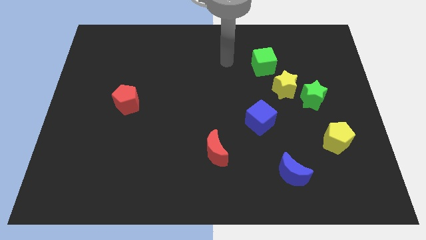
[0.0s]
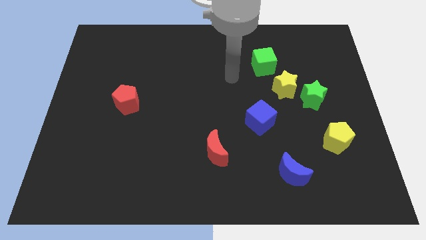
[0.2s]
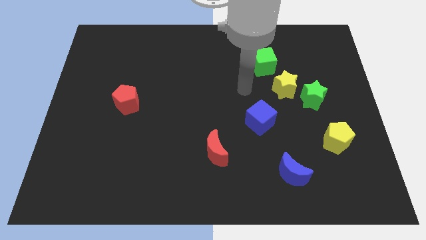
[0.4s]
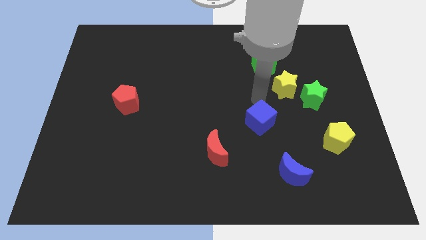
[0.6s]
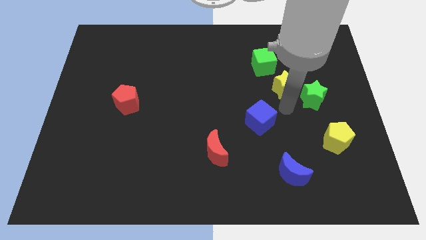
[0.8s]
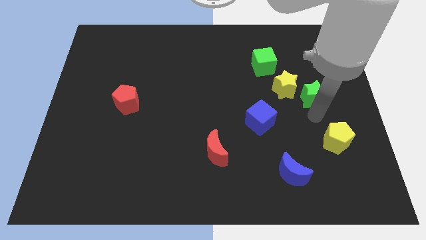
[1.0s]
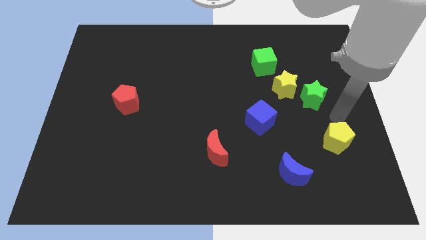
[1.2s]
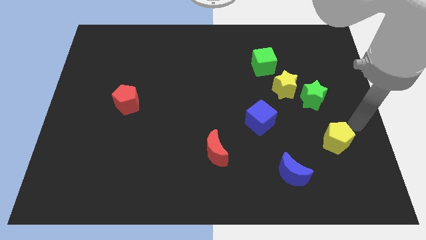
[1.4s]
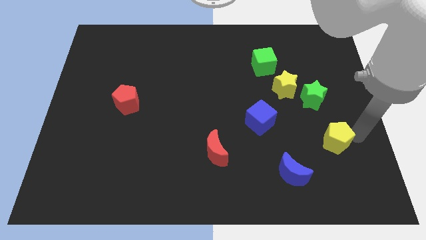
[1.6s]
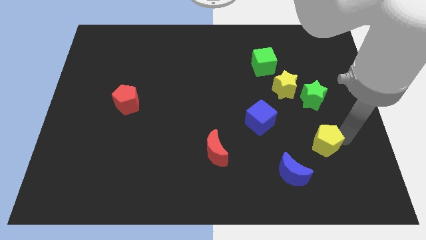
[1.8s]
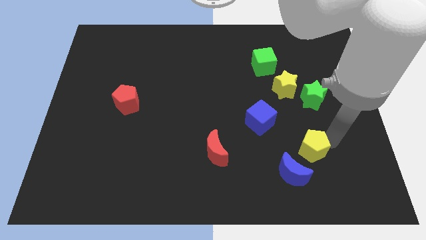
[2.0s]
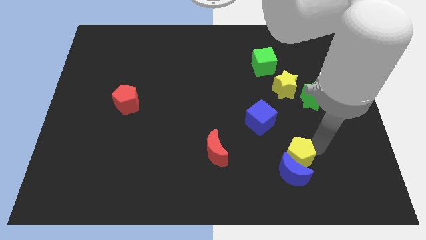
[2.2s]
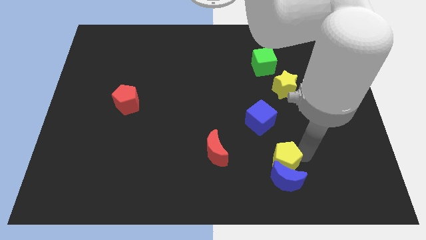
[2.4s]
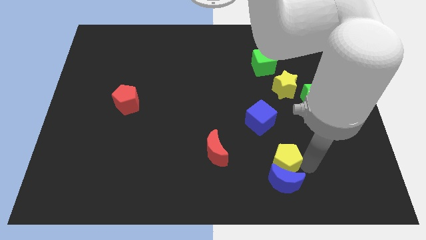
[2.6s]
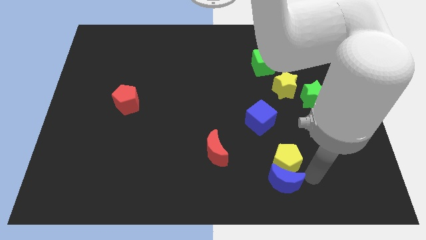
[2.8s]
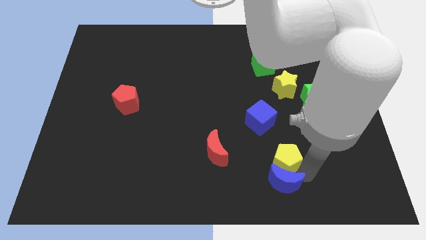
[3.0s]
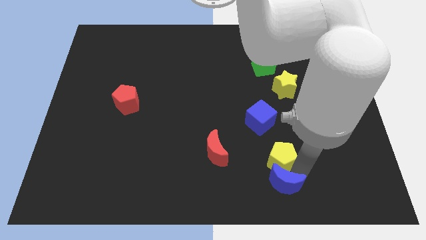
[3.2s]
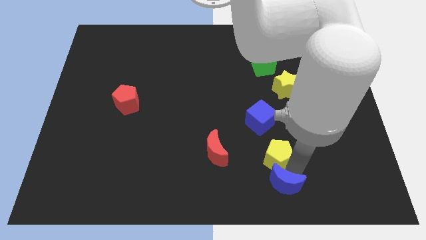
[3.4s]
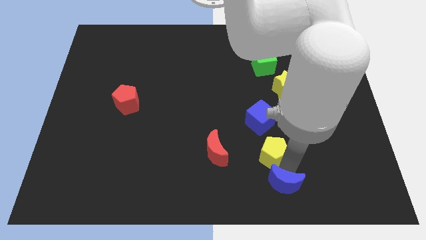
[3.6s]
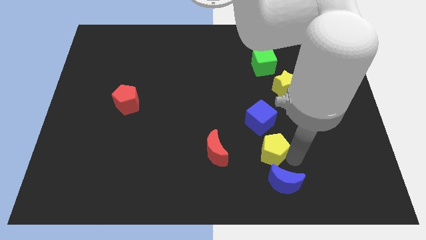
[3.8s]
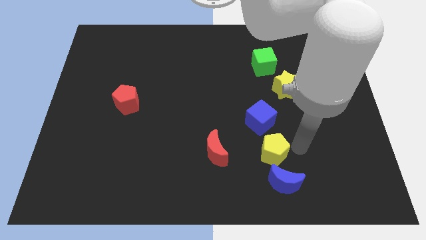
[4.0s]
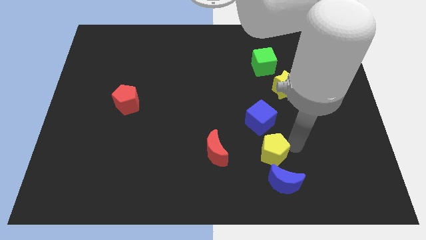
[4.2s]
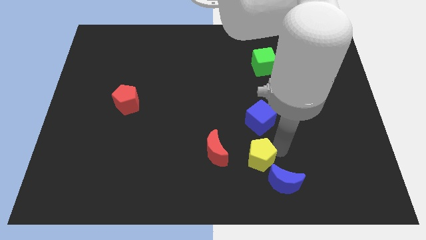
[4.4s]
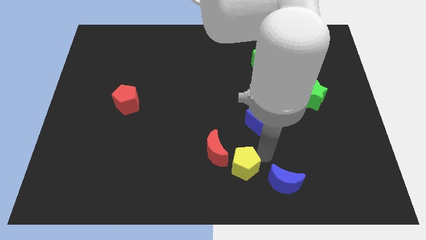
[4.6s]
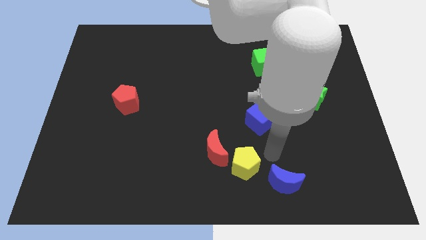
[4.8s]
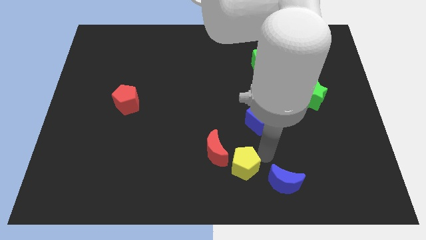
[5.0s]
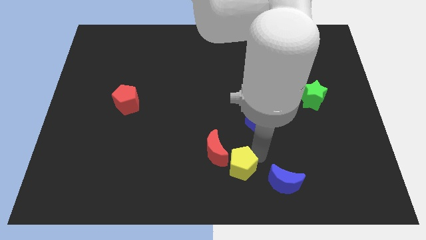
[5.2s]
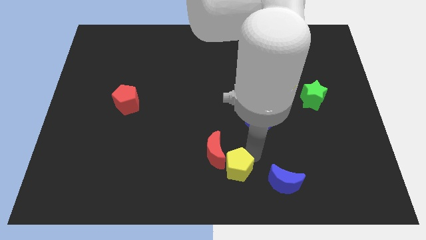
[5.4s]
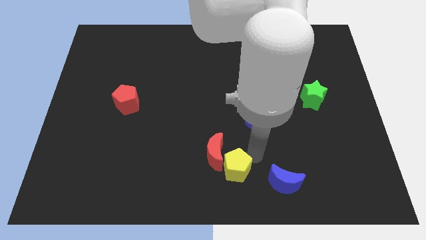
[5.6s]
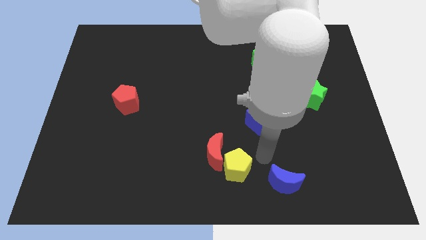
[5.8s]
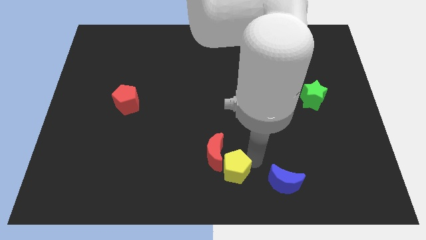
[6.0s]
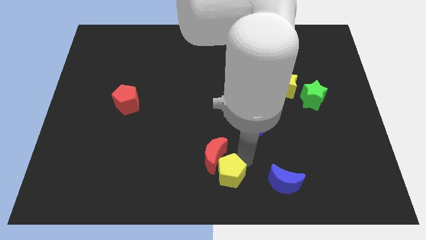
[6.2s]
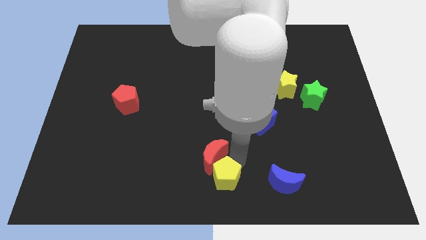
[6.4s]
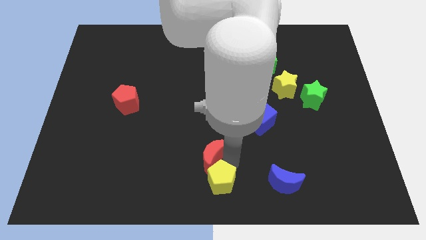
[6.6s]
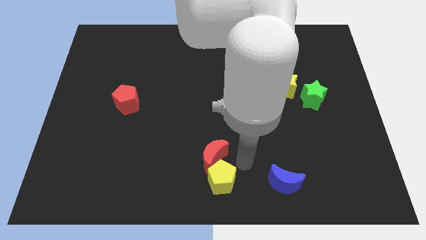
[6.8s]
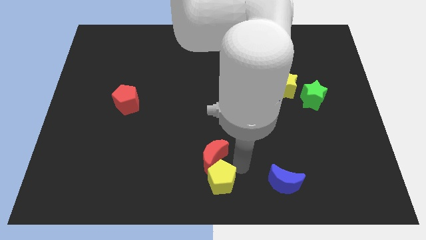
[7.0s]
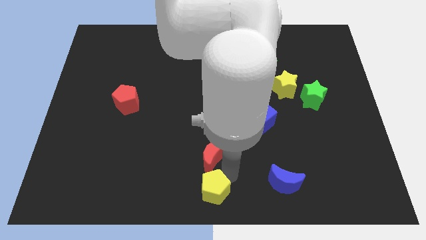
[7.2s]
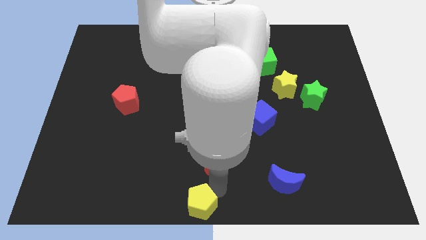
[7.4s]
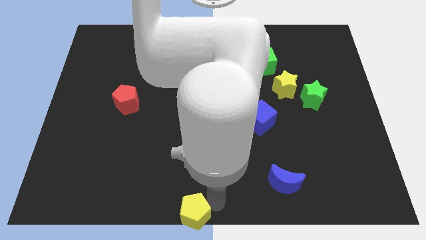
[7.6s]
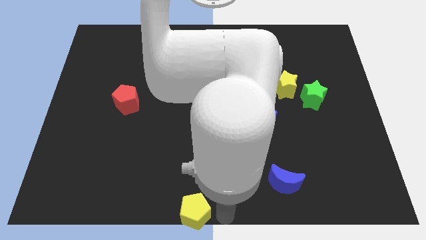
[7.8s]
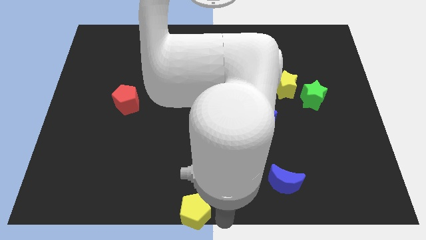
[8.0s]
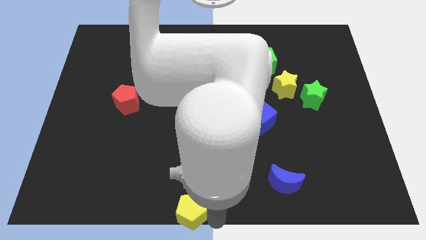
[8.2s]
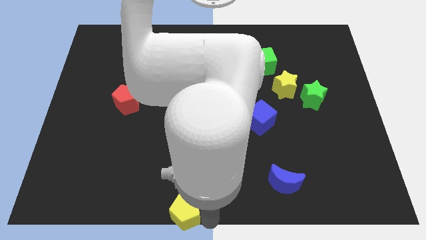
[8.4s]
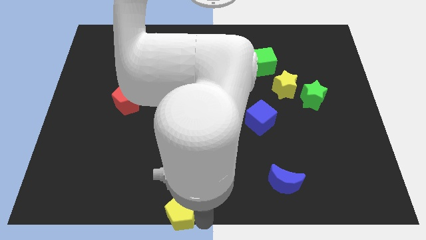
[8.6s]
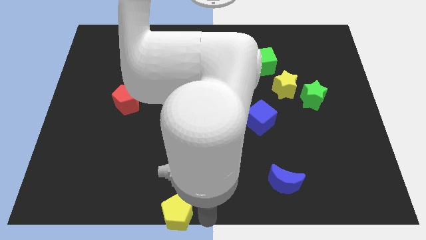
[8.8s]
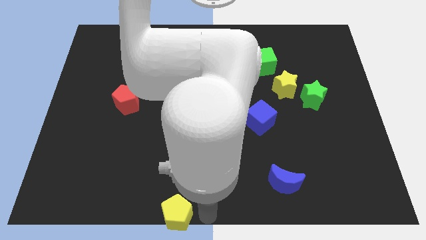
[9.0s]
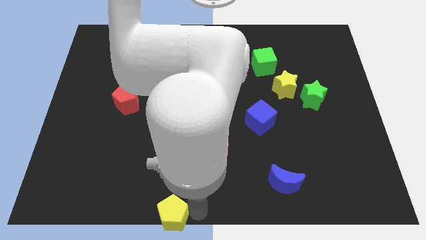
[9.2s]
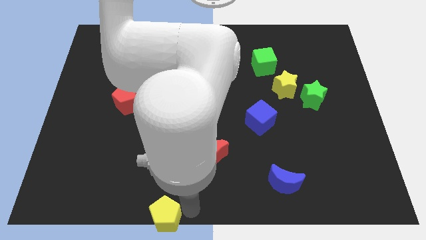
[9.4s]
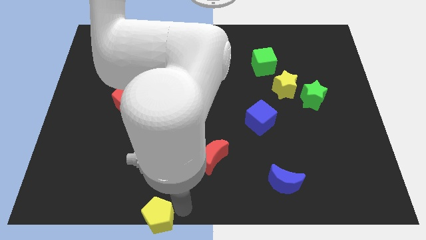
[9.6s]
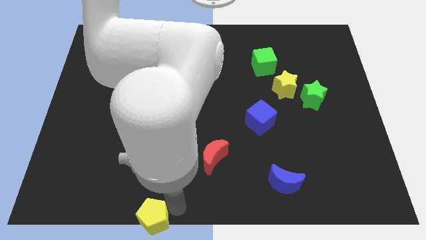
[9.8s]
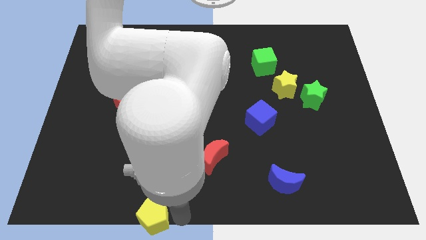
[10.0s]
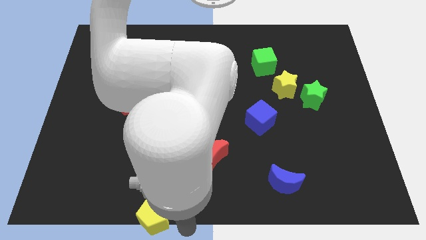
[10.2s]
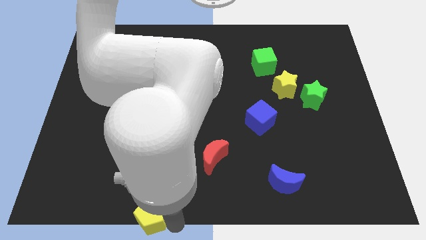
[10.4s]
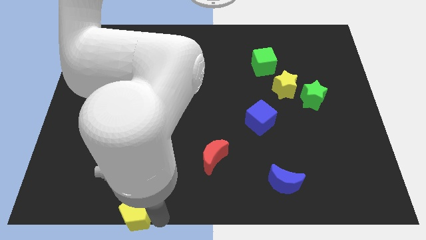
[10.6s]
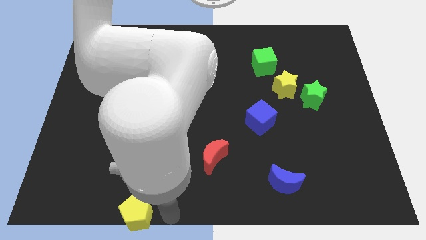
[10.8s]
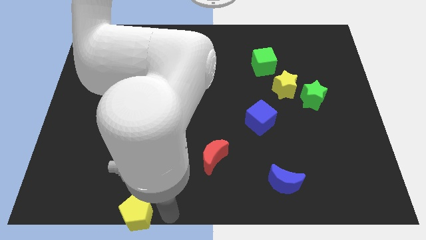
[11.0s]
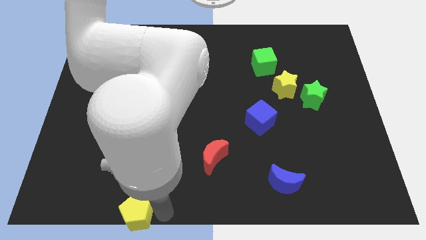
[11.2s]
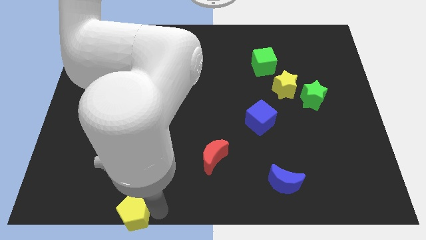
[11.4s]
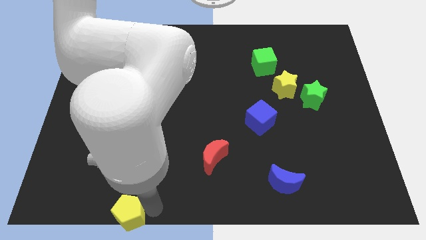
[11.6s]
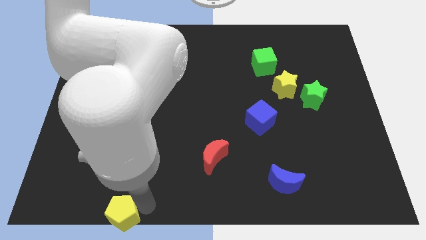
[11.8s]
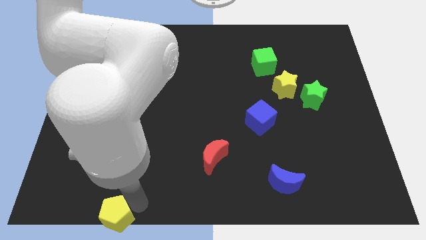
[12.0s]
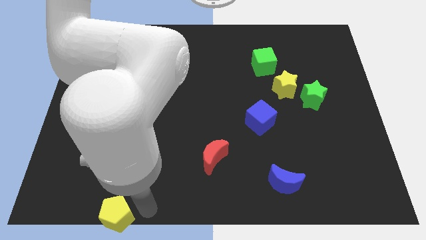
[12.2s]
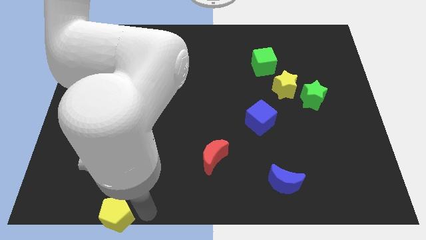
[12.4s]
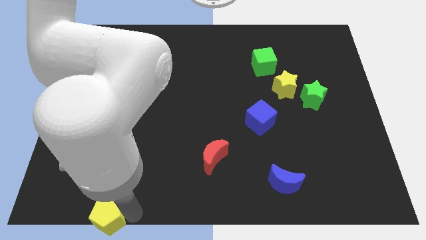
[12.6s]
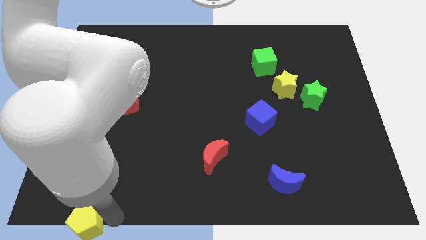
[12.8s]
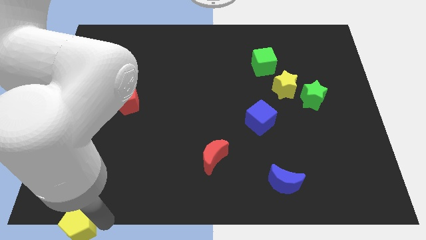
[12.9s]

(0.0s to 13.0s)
push the yellow pentagon to the bottom left corner
